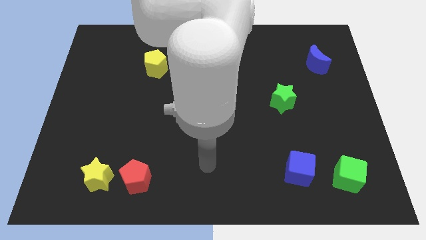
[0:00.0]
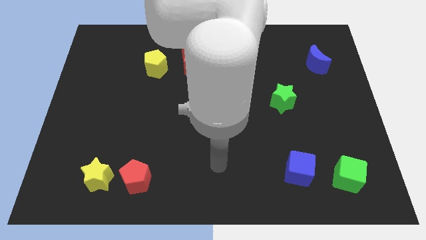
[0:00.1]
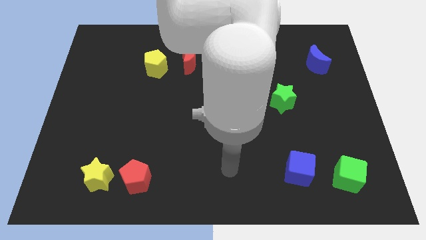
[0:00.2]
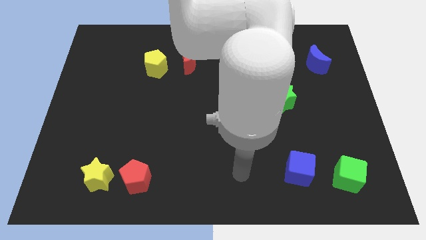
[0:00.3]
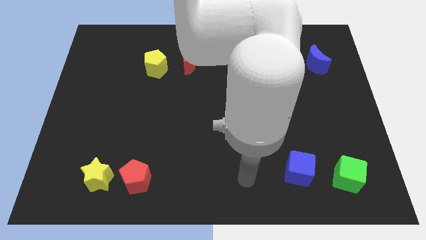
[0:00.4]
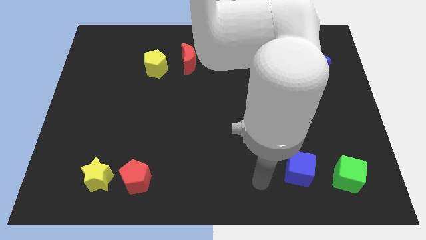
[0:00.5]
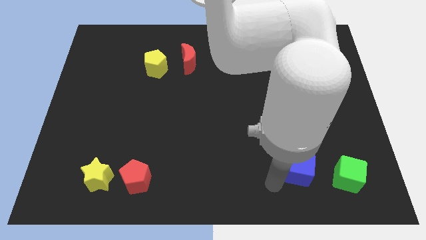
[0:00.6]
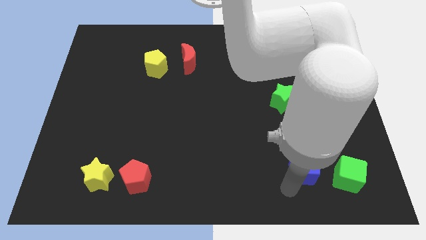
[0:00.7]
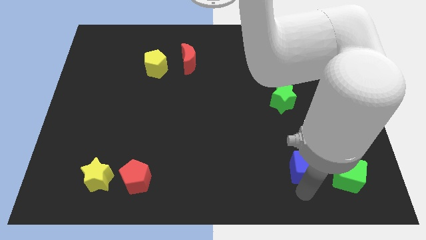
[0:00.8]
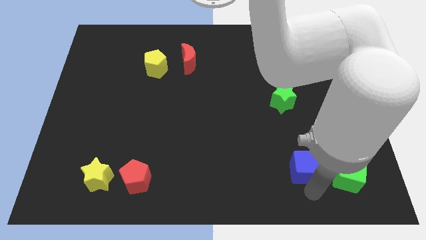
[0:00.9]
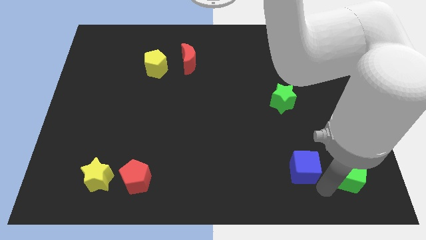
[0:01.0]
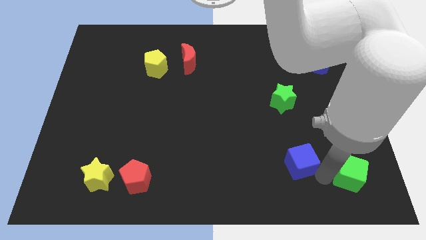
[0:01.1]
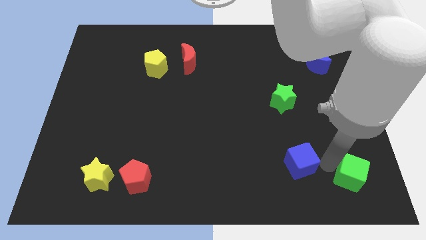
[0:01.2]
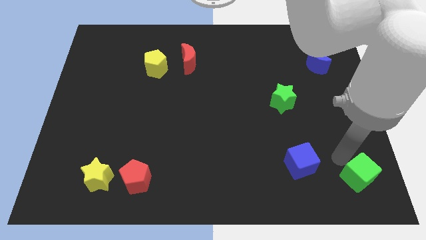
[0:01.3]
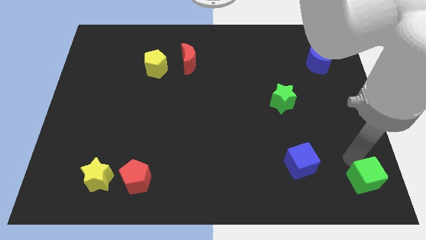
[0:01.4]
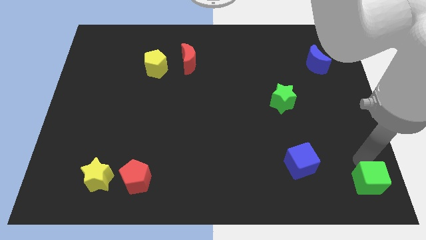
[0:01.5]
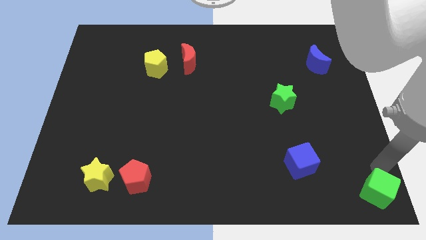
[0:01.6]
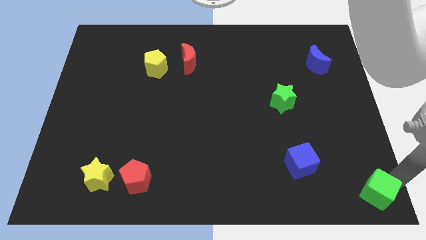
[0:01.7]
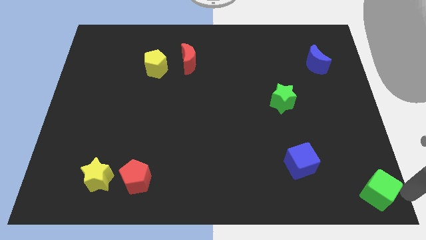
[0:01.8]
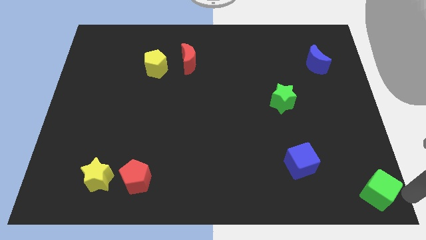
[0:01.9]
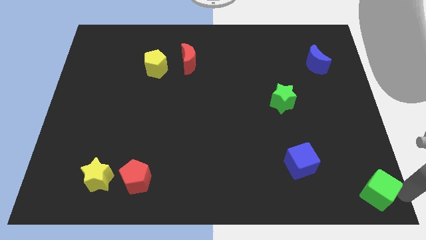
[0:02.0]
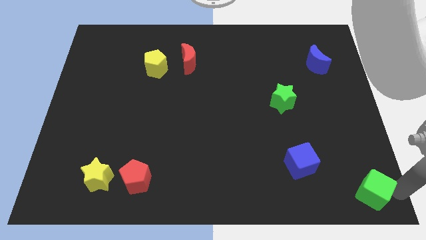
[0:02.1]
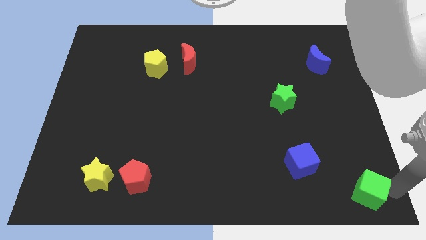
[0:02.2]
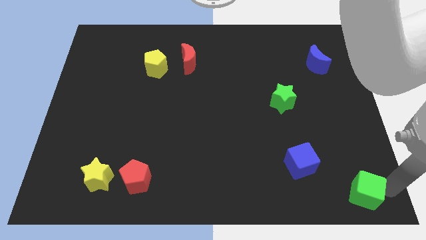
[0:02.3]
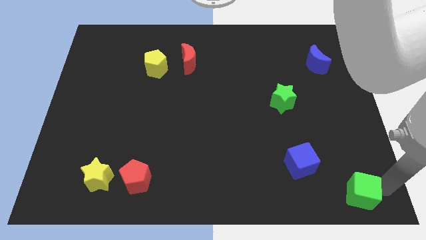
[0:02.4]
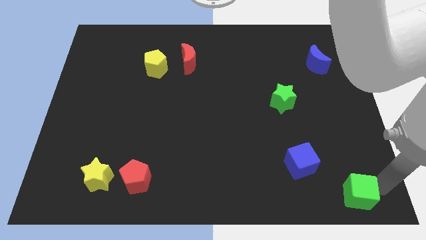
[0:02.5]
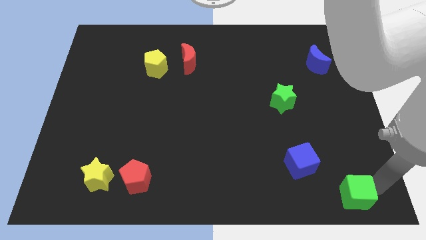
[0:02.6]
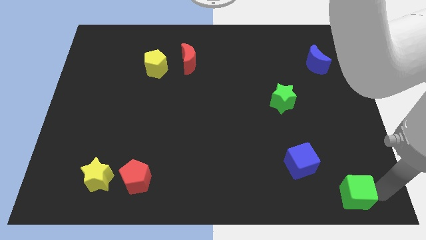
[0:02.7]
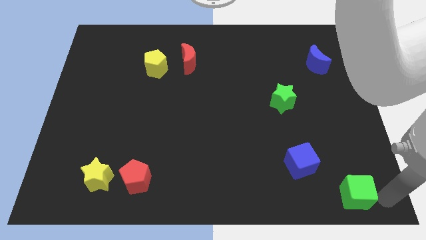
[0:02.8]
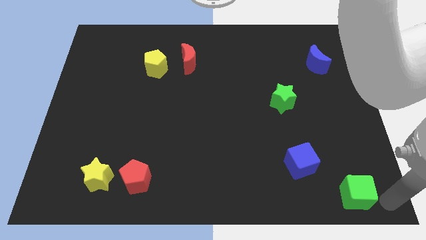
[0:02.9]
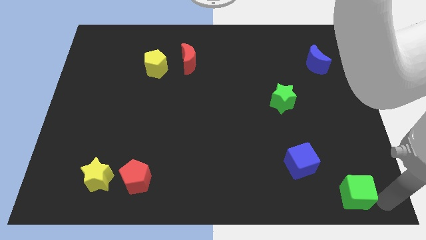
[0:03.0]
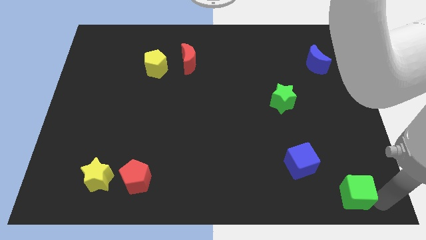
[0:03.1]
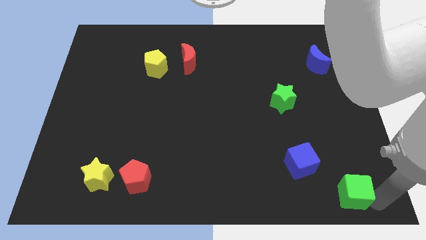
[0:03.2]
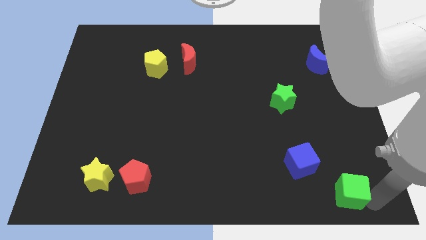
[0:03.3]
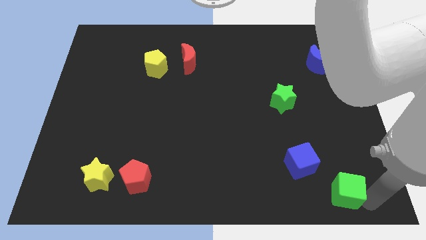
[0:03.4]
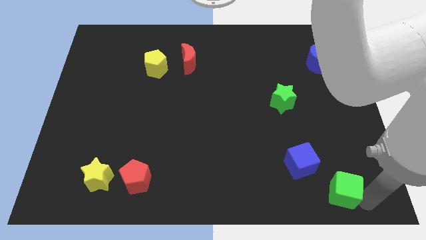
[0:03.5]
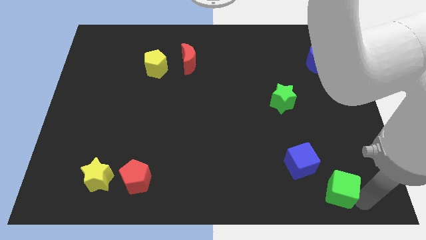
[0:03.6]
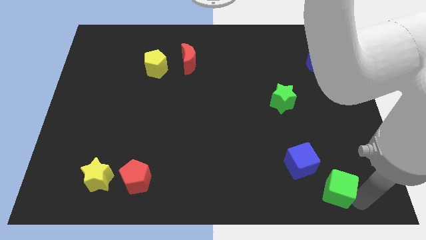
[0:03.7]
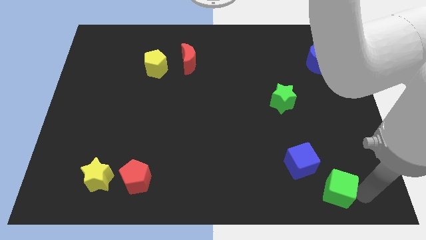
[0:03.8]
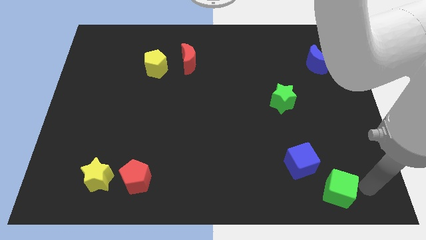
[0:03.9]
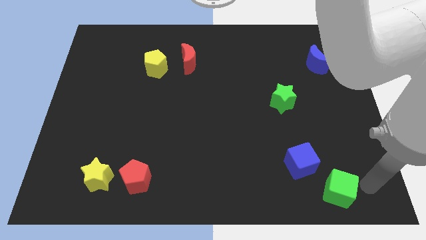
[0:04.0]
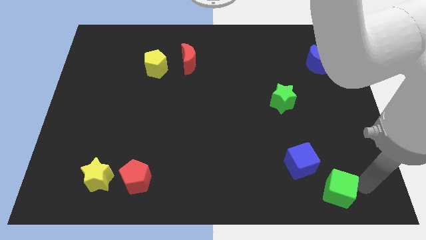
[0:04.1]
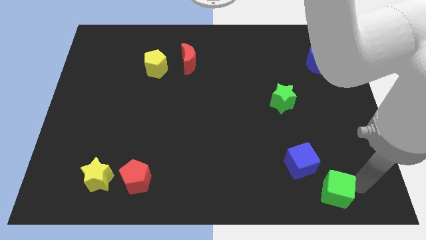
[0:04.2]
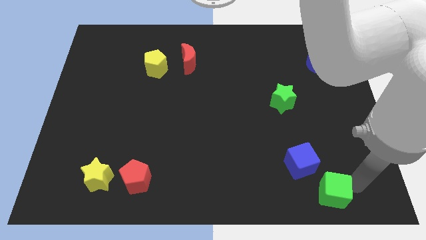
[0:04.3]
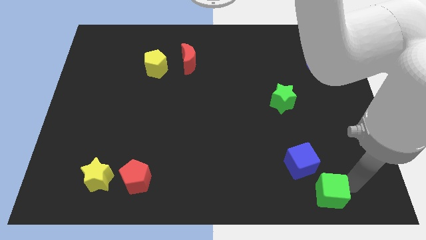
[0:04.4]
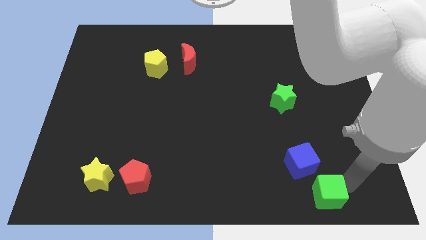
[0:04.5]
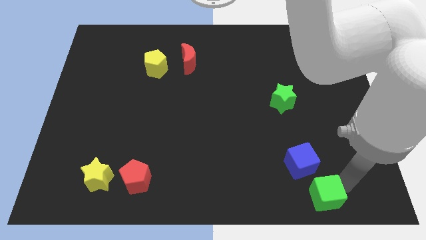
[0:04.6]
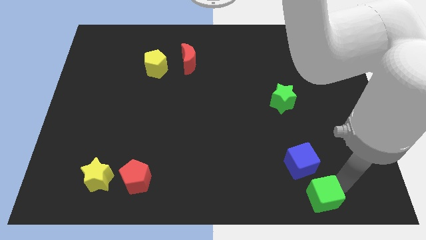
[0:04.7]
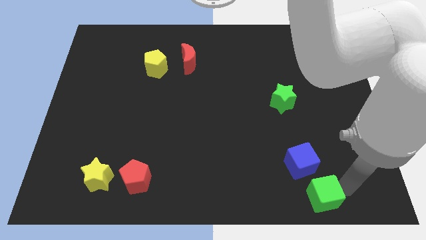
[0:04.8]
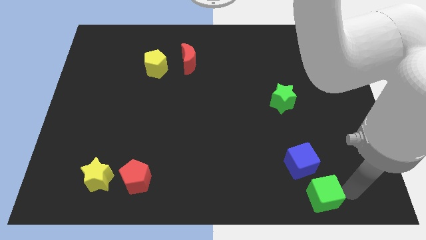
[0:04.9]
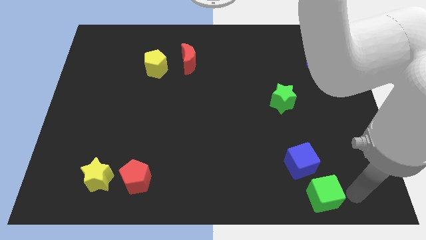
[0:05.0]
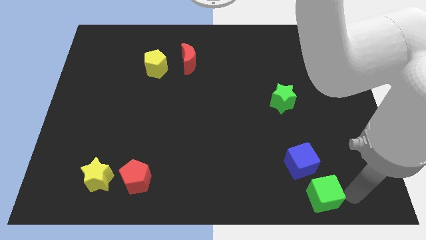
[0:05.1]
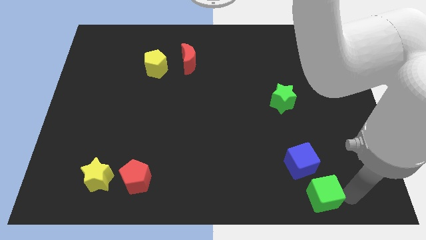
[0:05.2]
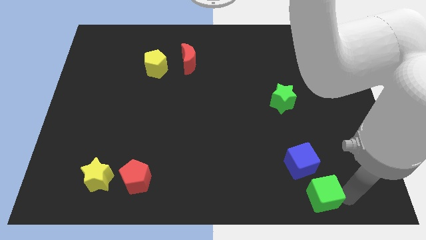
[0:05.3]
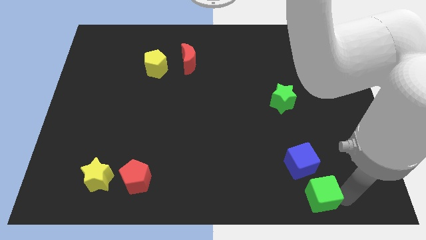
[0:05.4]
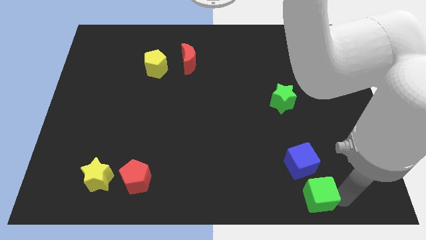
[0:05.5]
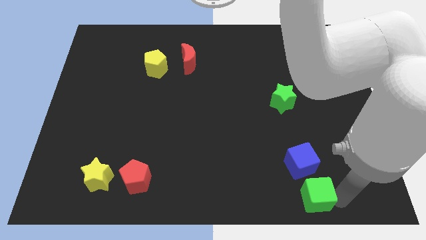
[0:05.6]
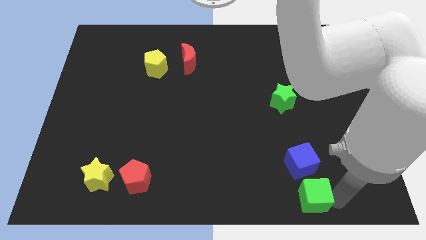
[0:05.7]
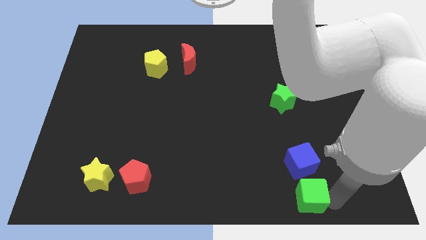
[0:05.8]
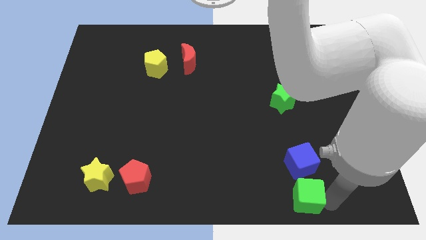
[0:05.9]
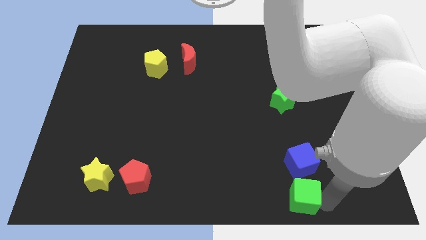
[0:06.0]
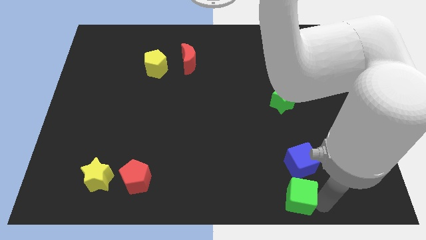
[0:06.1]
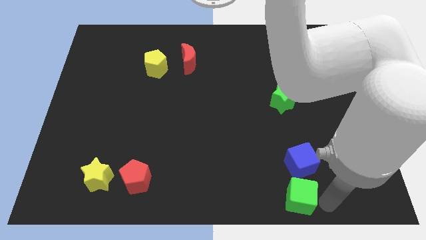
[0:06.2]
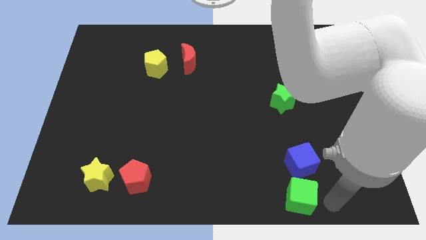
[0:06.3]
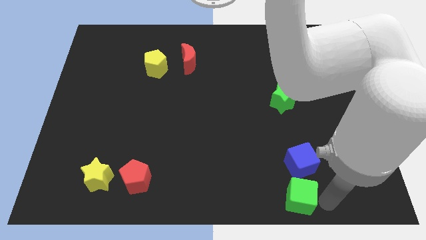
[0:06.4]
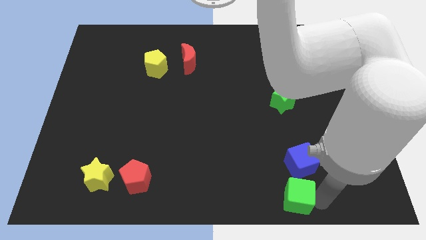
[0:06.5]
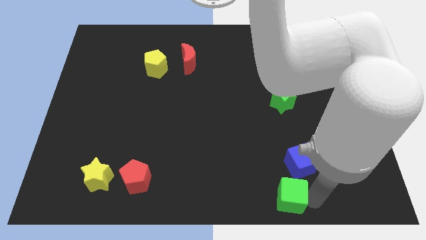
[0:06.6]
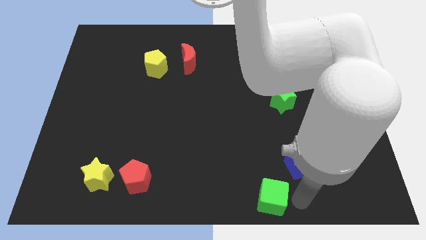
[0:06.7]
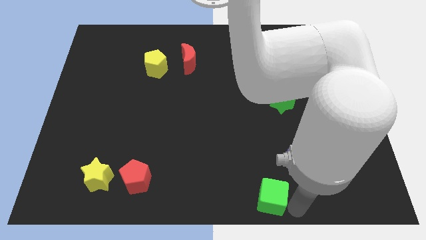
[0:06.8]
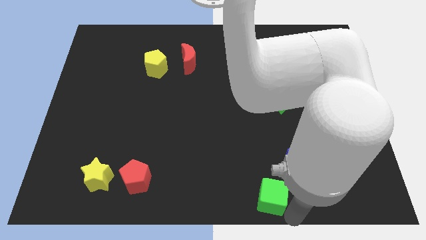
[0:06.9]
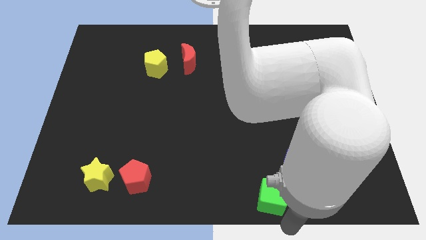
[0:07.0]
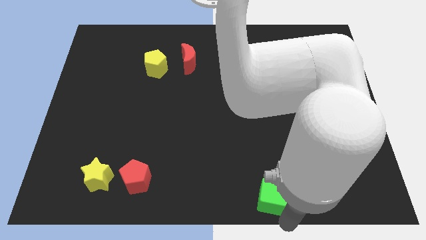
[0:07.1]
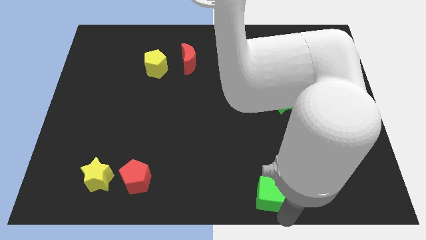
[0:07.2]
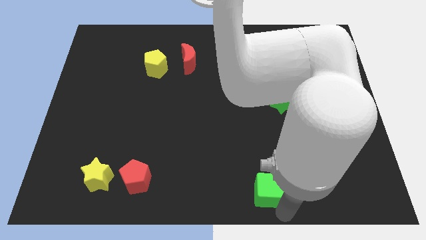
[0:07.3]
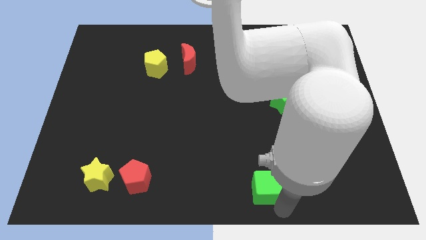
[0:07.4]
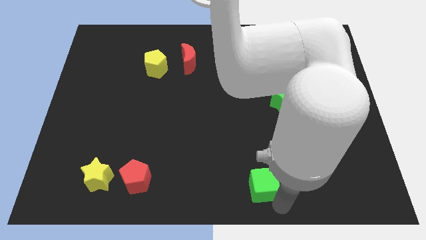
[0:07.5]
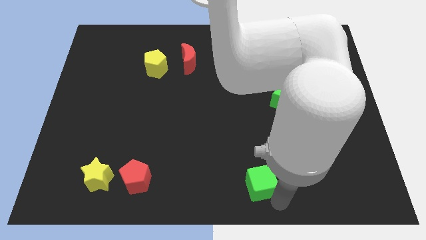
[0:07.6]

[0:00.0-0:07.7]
put the green cube left of the blue cube

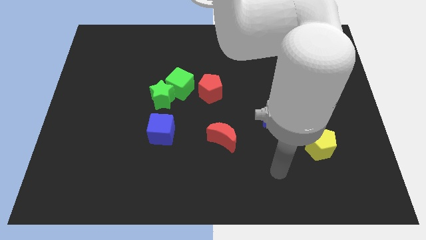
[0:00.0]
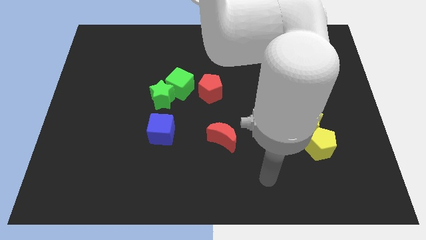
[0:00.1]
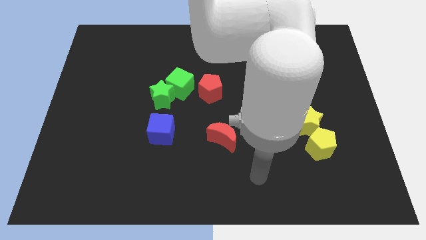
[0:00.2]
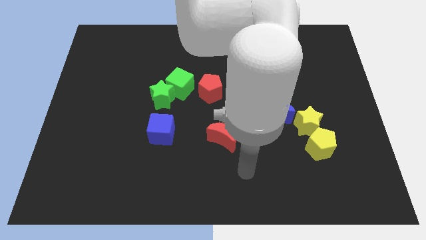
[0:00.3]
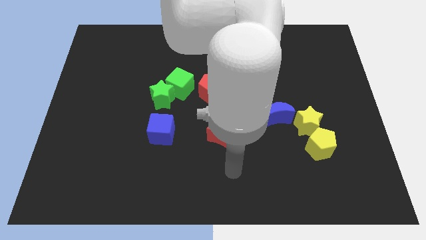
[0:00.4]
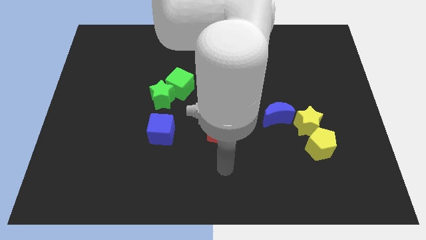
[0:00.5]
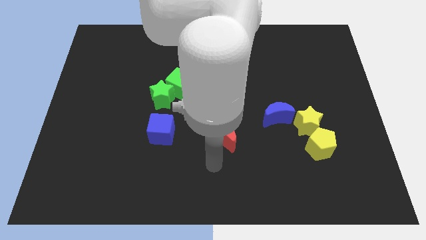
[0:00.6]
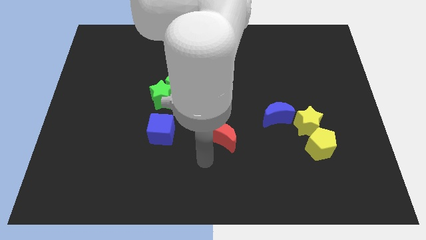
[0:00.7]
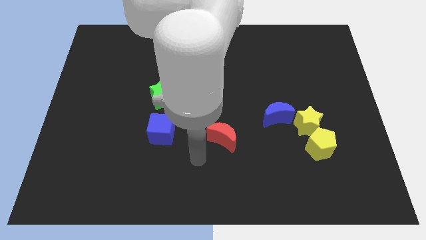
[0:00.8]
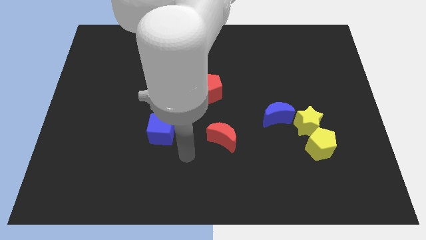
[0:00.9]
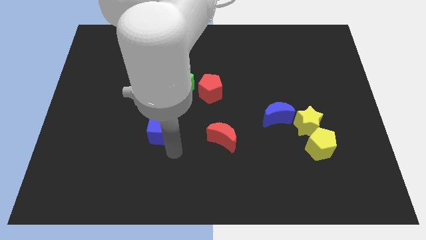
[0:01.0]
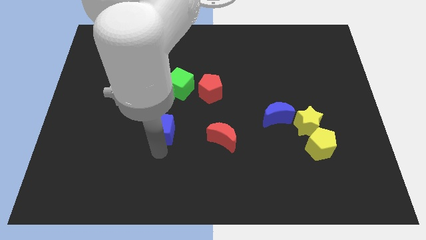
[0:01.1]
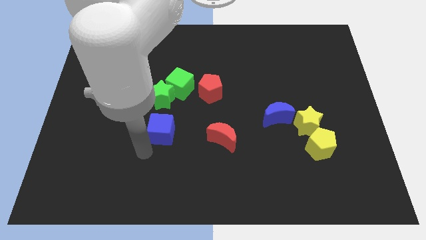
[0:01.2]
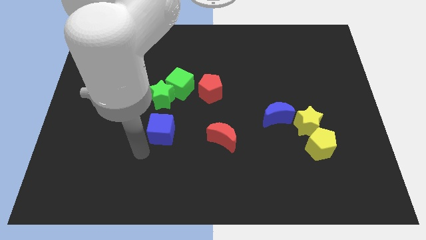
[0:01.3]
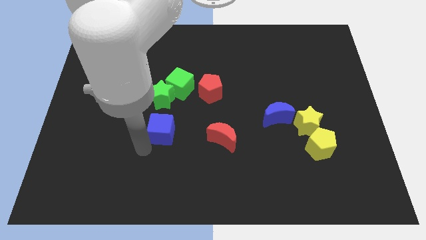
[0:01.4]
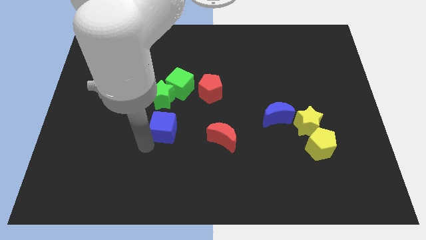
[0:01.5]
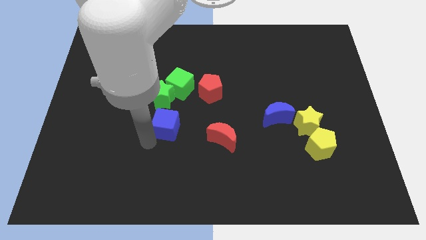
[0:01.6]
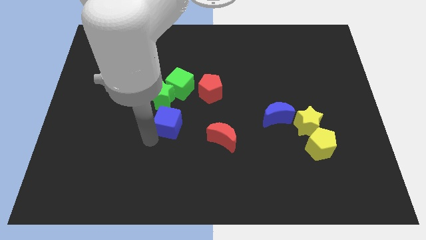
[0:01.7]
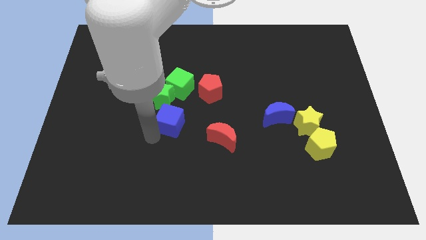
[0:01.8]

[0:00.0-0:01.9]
slide the blue cube diagonally down and to the left of the red pentagon
